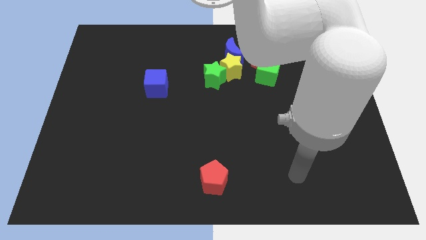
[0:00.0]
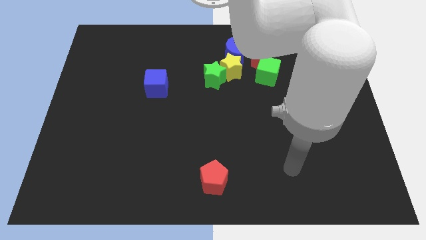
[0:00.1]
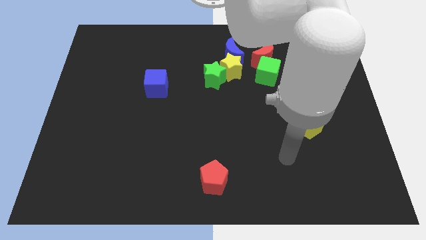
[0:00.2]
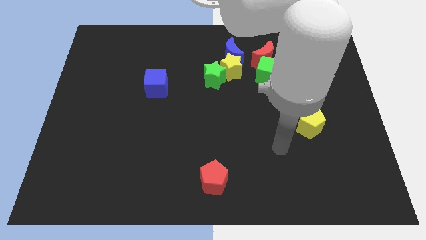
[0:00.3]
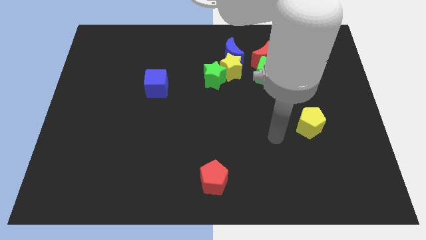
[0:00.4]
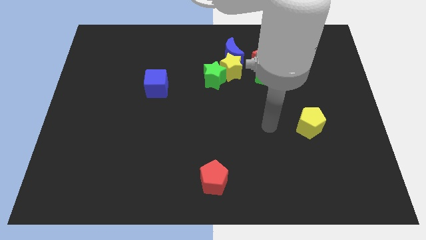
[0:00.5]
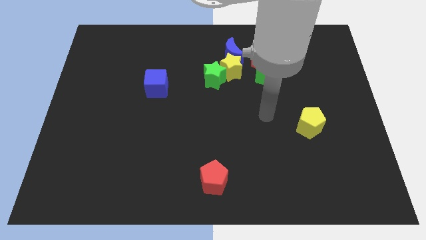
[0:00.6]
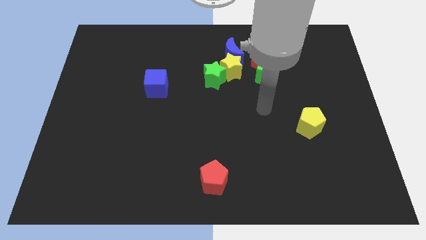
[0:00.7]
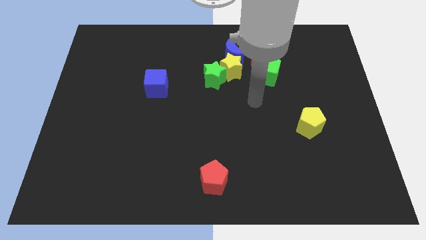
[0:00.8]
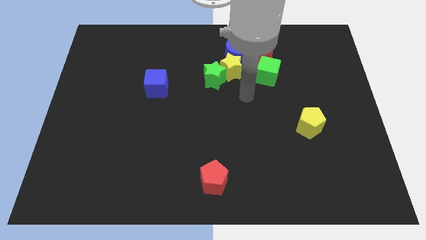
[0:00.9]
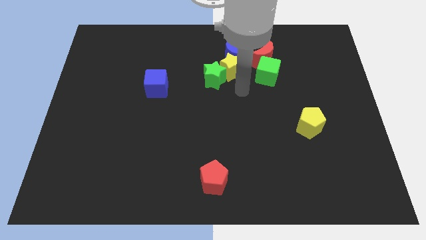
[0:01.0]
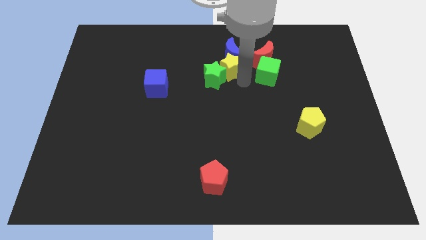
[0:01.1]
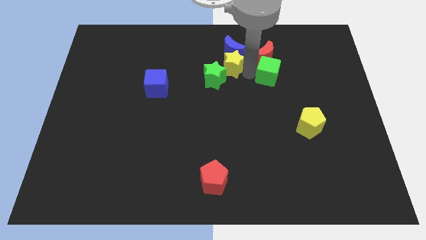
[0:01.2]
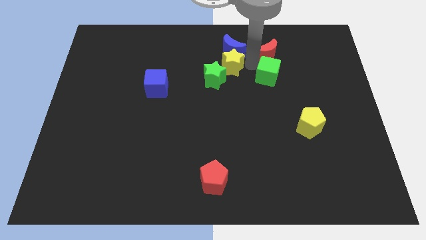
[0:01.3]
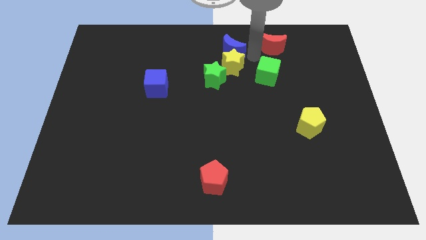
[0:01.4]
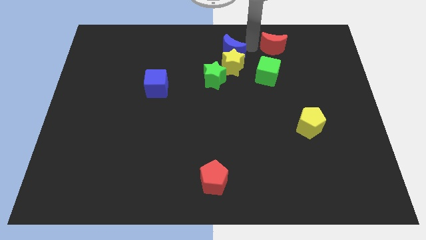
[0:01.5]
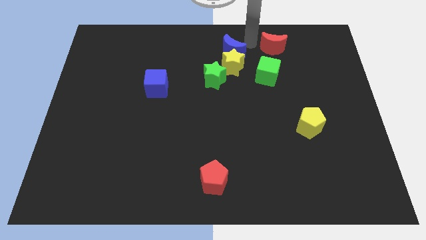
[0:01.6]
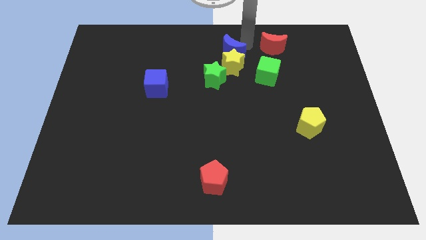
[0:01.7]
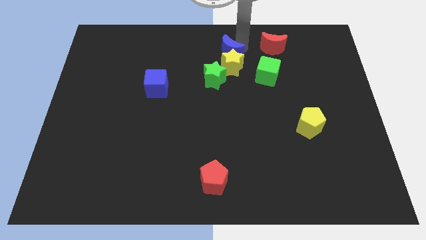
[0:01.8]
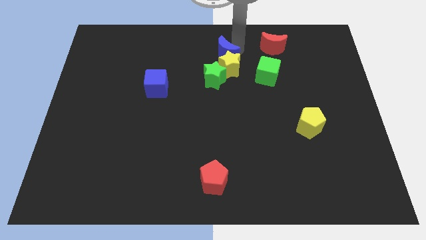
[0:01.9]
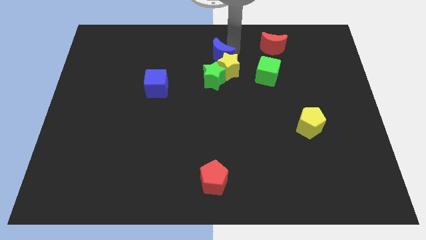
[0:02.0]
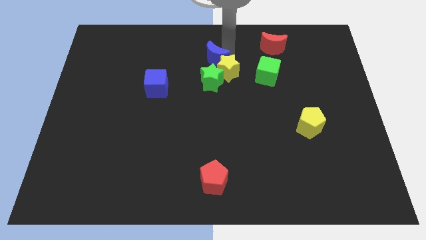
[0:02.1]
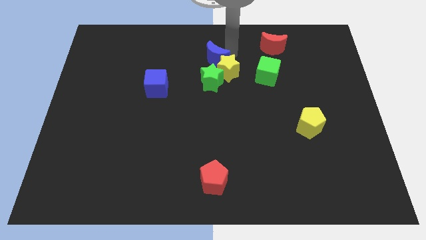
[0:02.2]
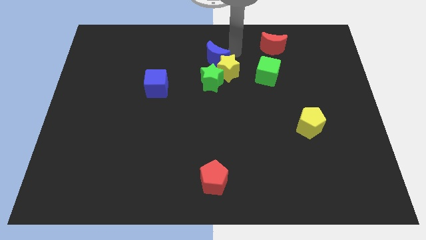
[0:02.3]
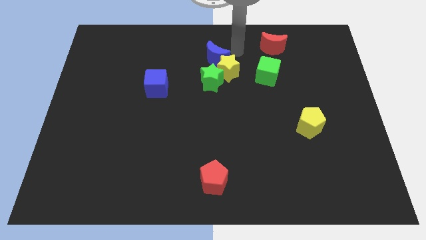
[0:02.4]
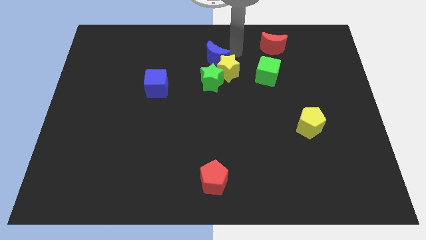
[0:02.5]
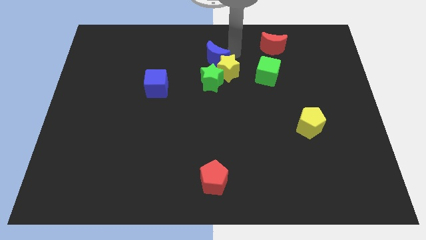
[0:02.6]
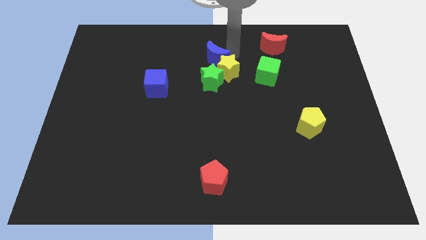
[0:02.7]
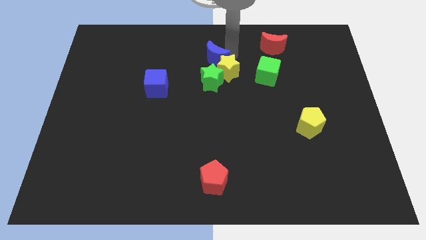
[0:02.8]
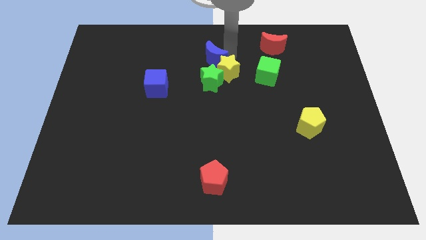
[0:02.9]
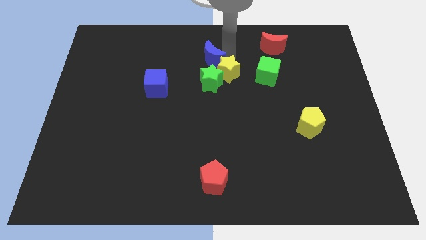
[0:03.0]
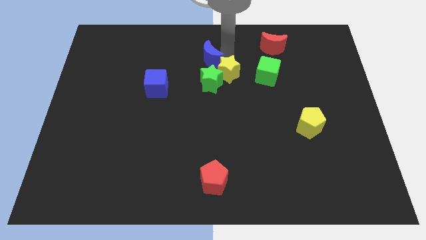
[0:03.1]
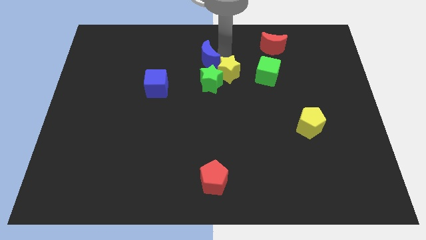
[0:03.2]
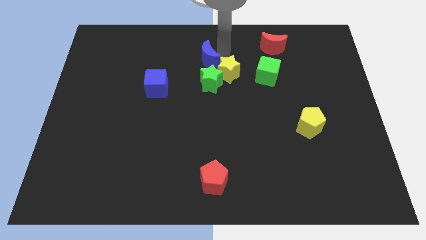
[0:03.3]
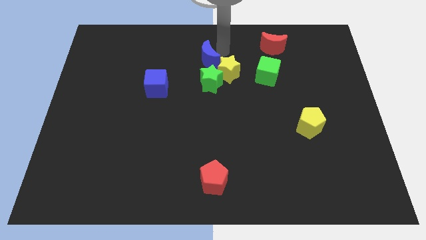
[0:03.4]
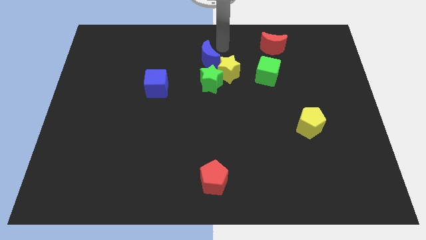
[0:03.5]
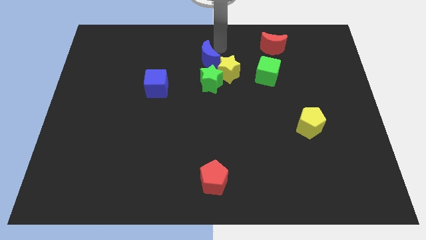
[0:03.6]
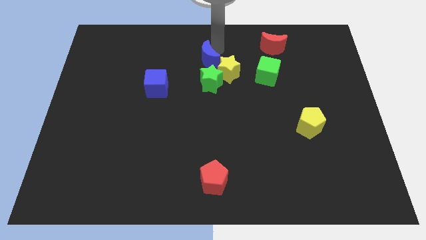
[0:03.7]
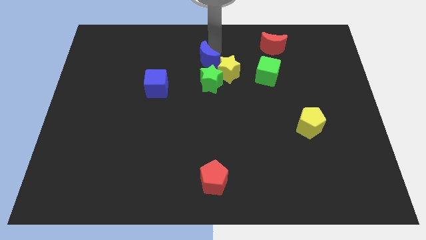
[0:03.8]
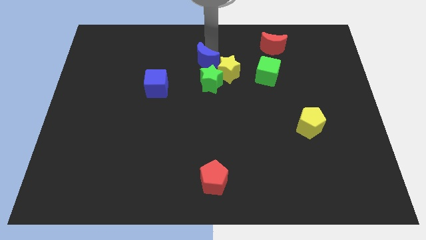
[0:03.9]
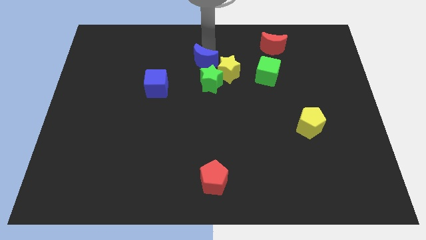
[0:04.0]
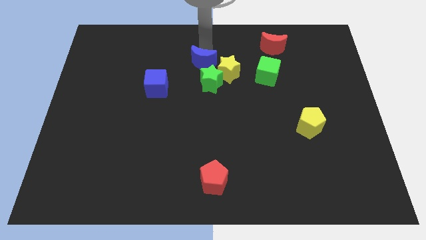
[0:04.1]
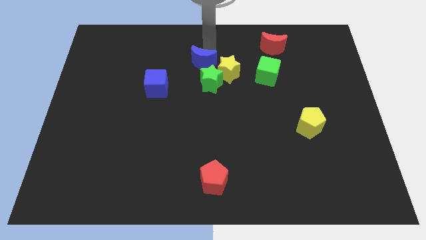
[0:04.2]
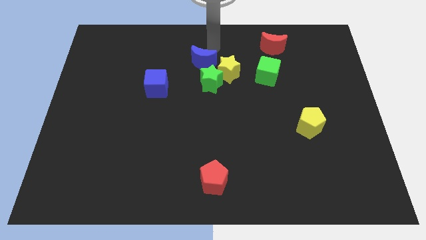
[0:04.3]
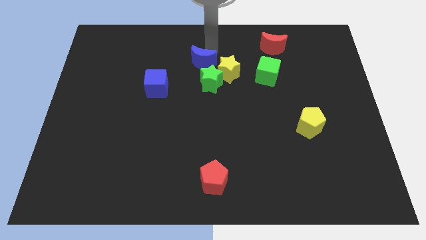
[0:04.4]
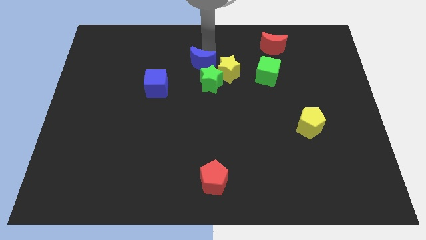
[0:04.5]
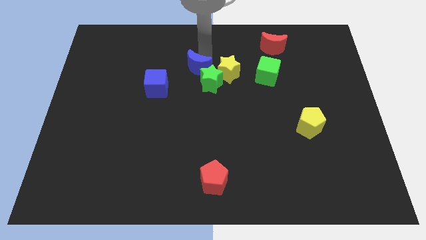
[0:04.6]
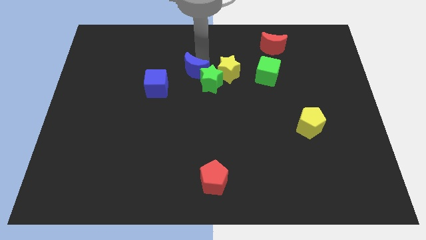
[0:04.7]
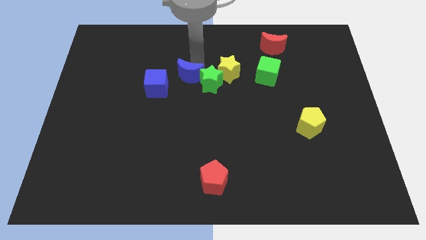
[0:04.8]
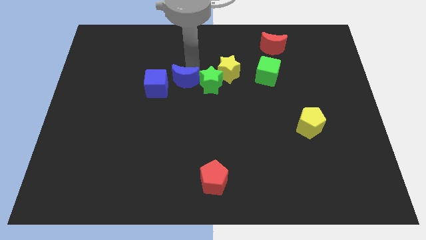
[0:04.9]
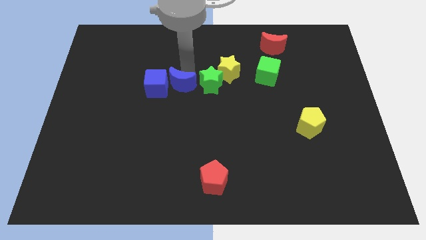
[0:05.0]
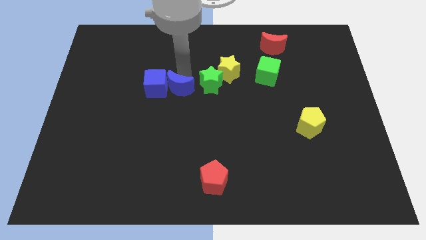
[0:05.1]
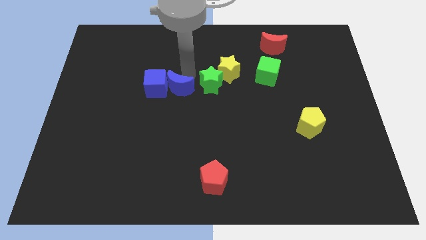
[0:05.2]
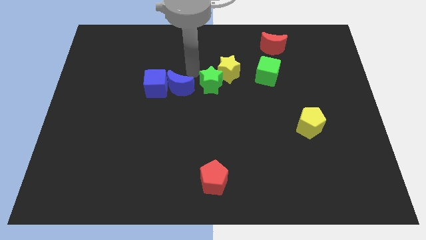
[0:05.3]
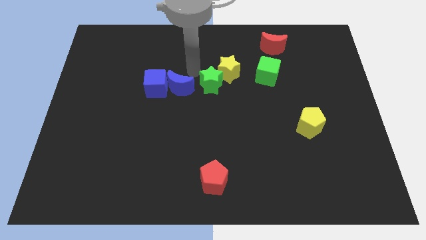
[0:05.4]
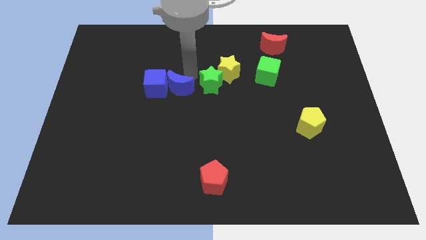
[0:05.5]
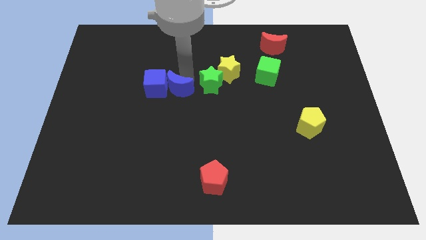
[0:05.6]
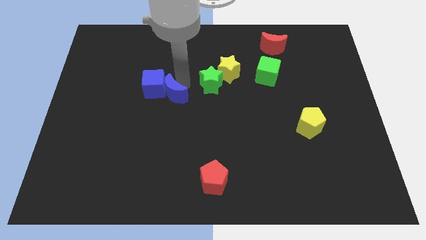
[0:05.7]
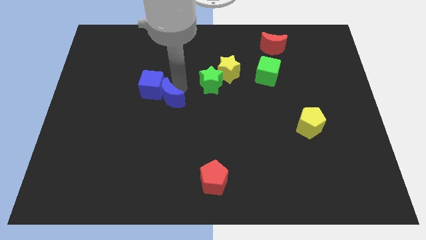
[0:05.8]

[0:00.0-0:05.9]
push the blue moon down and left

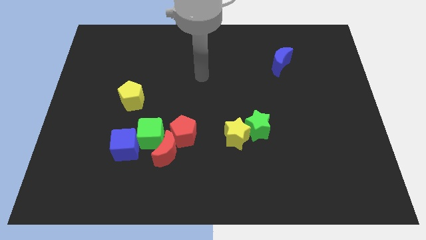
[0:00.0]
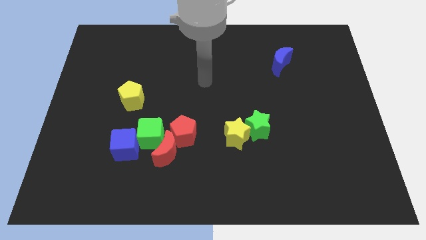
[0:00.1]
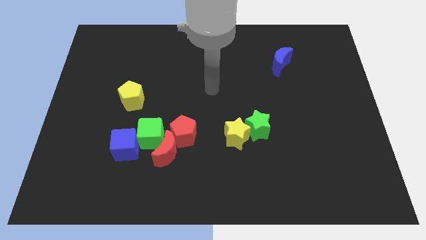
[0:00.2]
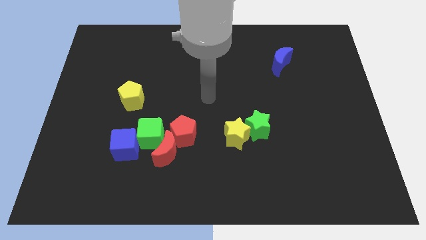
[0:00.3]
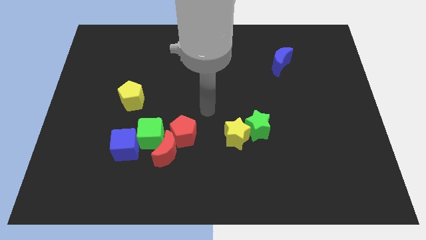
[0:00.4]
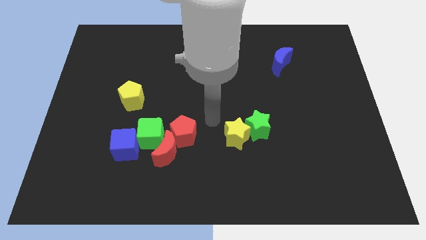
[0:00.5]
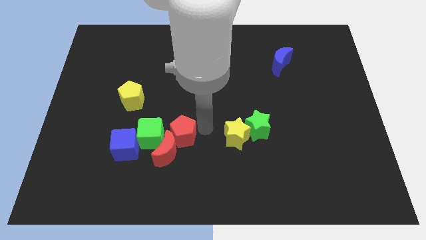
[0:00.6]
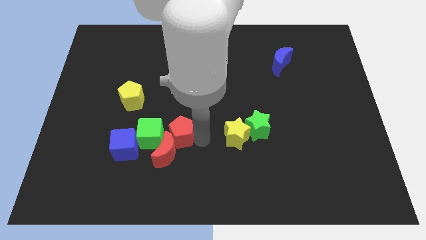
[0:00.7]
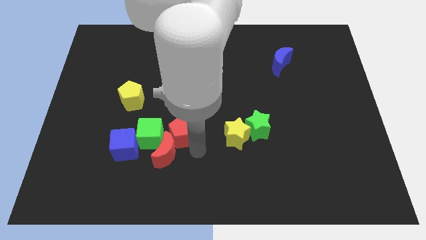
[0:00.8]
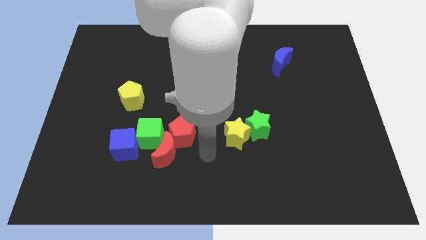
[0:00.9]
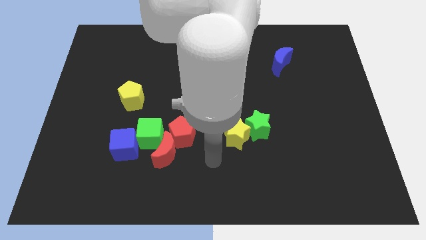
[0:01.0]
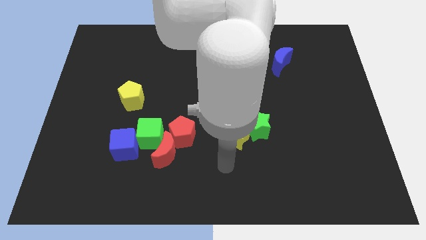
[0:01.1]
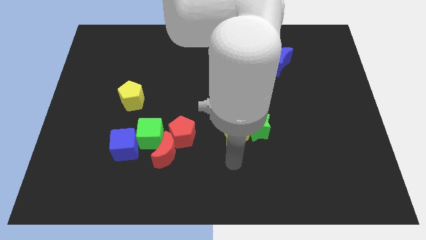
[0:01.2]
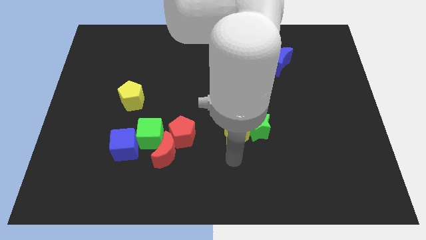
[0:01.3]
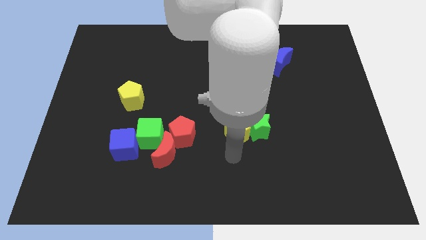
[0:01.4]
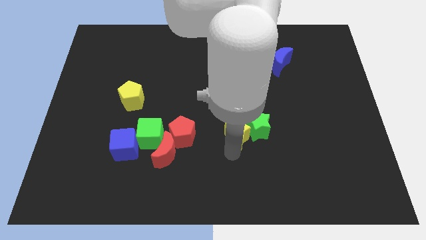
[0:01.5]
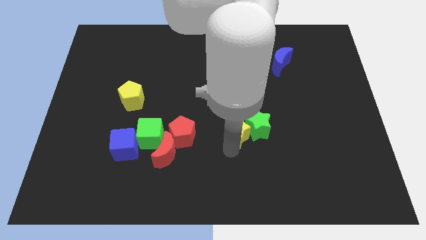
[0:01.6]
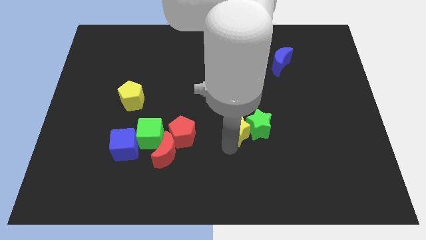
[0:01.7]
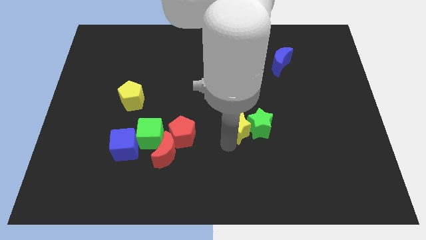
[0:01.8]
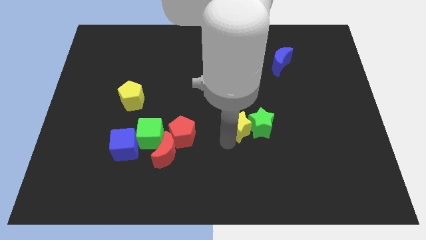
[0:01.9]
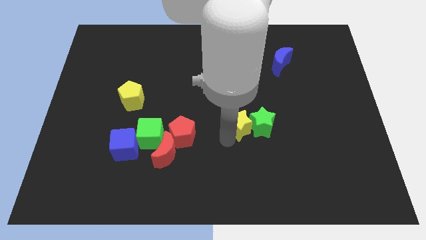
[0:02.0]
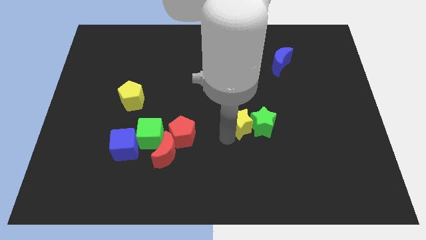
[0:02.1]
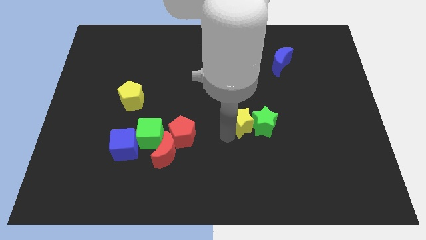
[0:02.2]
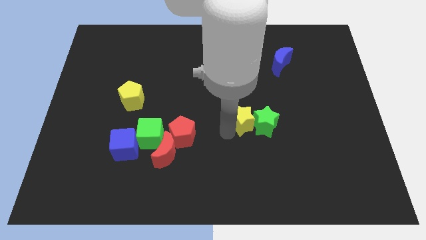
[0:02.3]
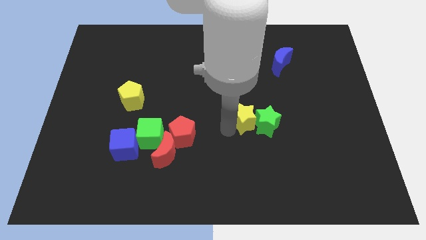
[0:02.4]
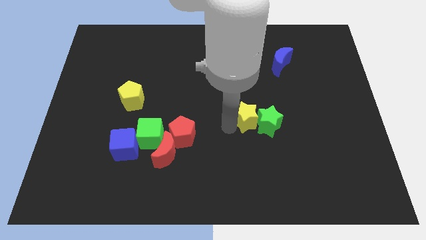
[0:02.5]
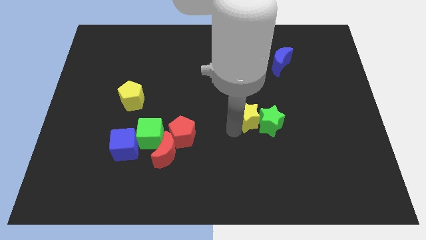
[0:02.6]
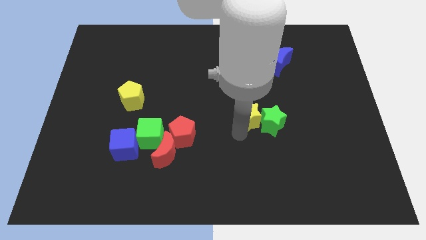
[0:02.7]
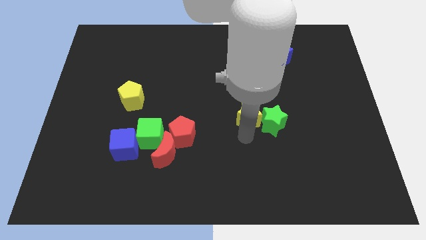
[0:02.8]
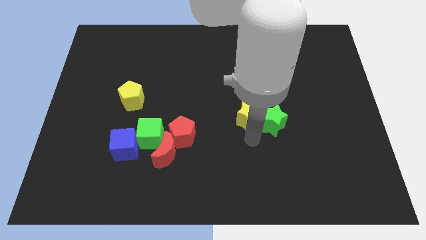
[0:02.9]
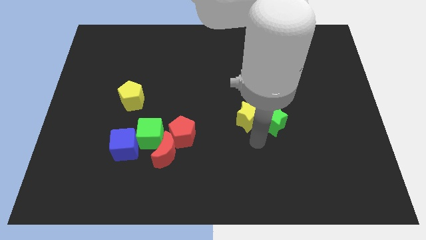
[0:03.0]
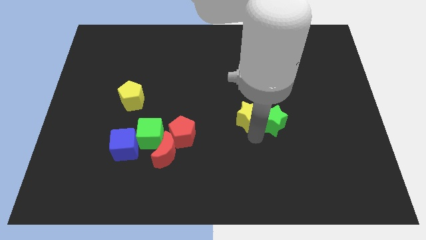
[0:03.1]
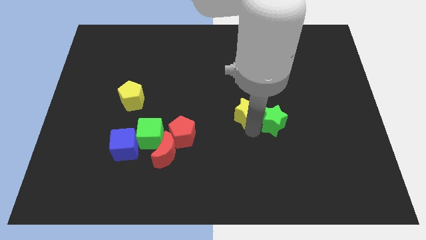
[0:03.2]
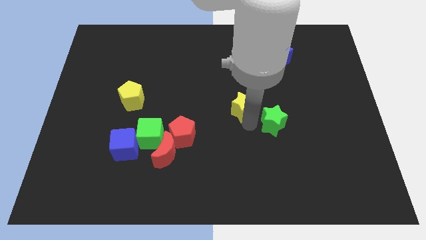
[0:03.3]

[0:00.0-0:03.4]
move the yellow star up somewhat
